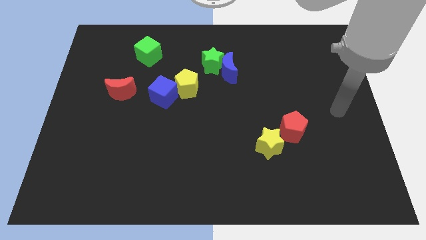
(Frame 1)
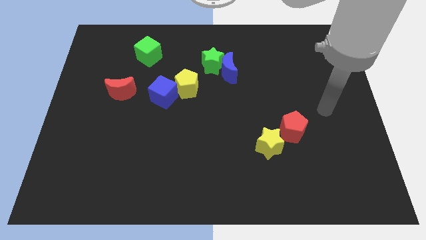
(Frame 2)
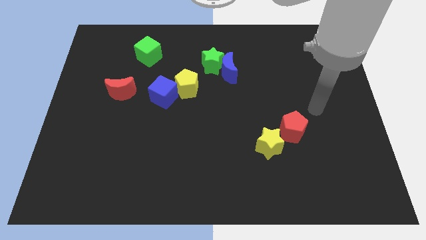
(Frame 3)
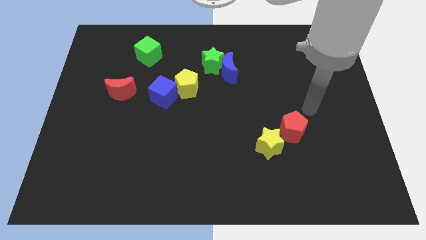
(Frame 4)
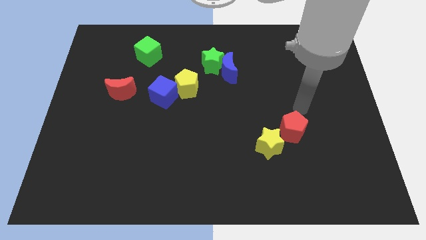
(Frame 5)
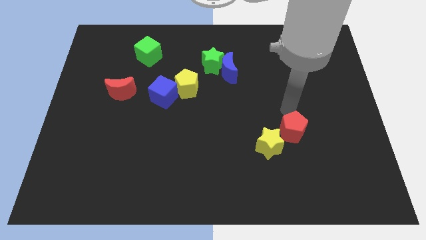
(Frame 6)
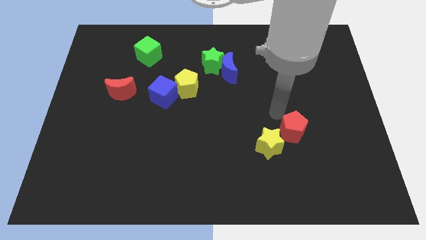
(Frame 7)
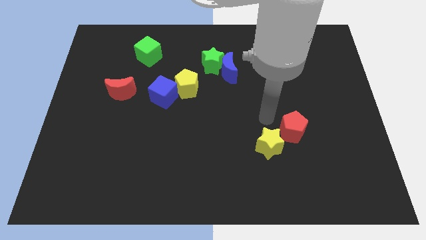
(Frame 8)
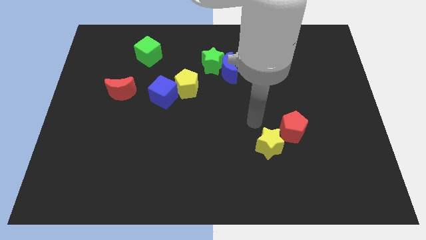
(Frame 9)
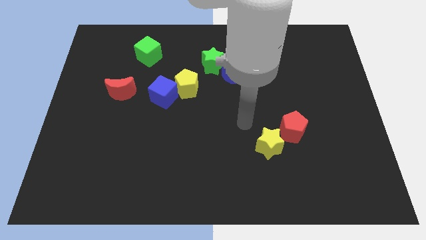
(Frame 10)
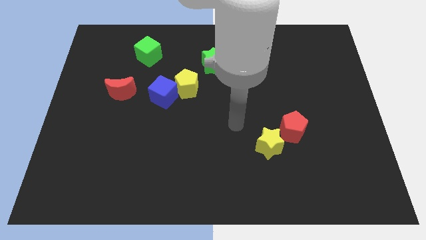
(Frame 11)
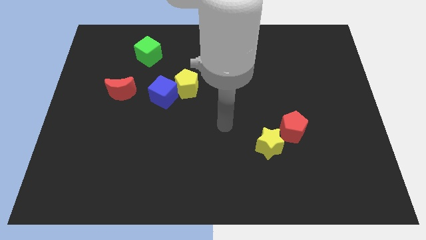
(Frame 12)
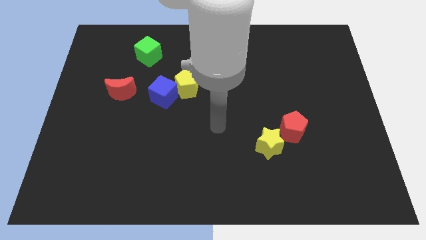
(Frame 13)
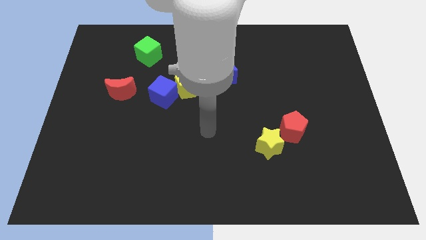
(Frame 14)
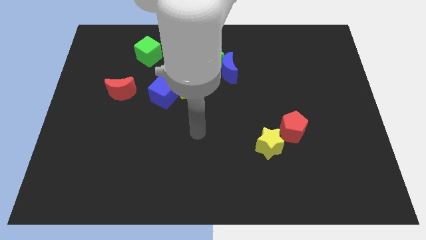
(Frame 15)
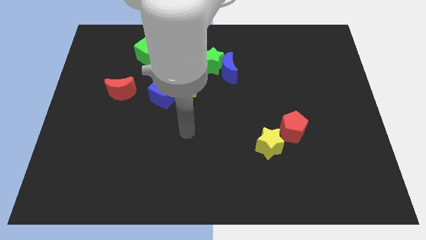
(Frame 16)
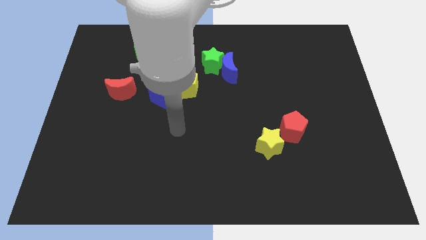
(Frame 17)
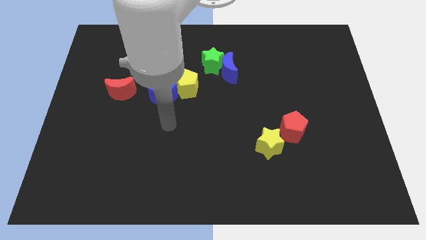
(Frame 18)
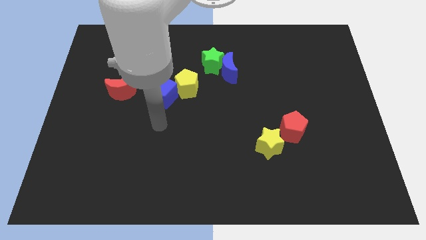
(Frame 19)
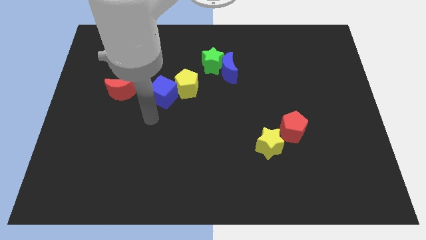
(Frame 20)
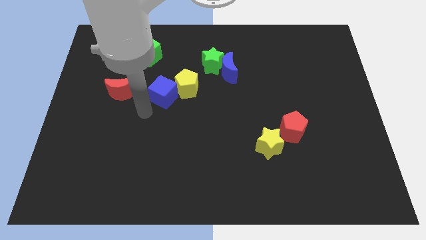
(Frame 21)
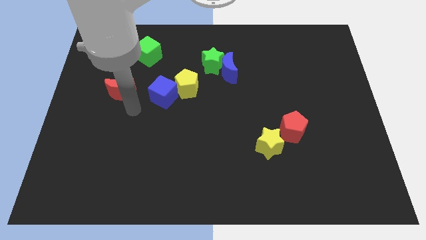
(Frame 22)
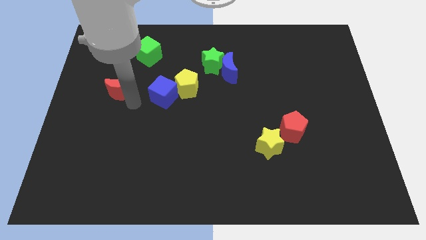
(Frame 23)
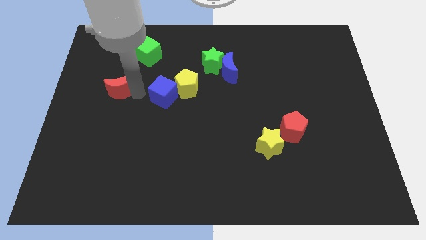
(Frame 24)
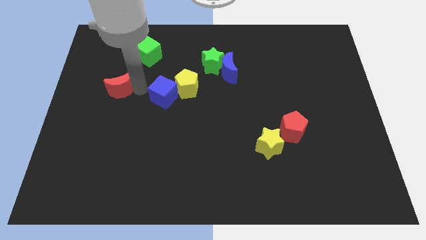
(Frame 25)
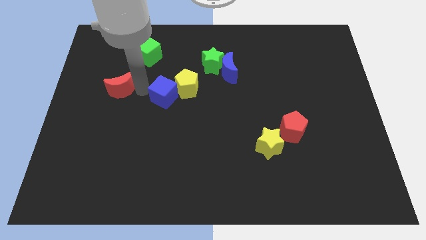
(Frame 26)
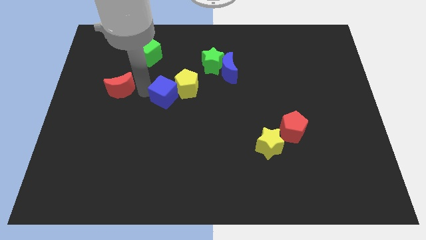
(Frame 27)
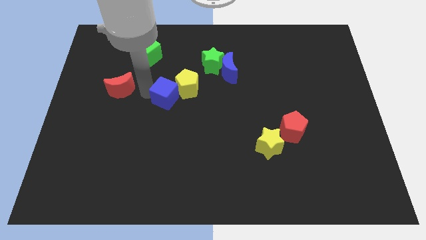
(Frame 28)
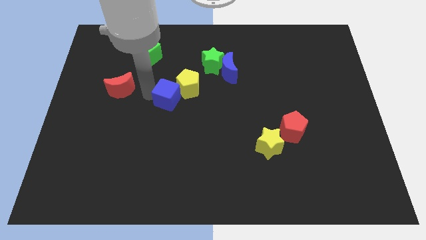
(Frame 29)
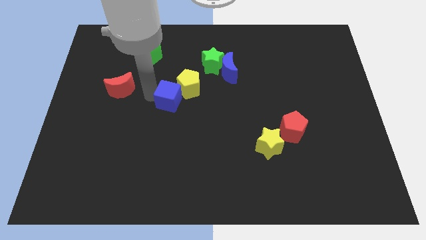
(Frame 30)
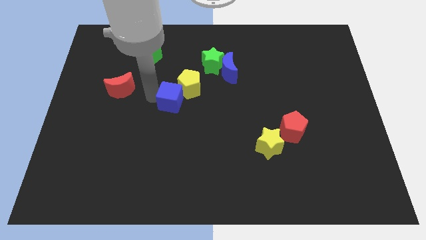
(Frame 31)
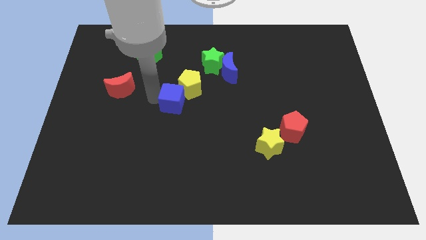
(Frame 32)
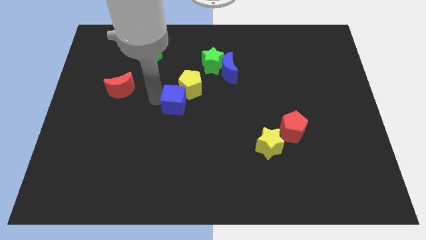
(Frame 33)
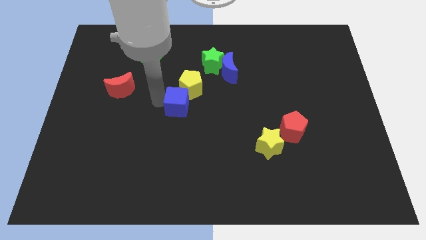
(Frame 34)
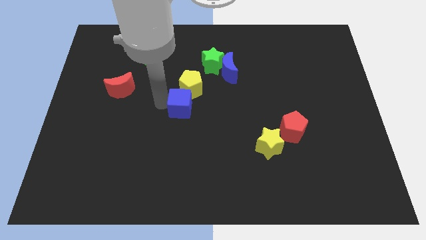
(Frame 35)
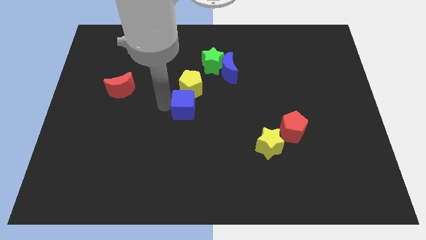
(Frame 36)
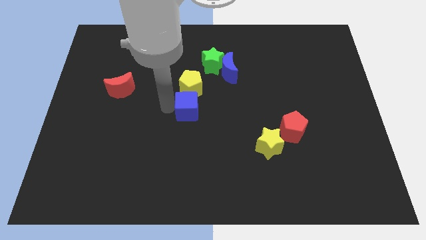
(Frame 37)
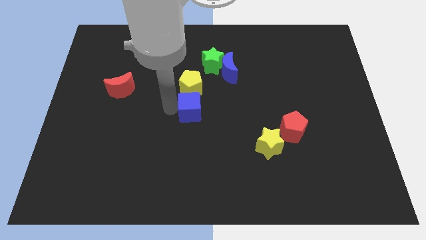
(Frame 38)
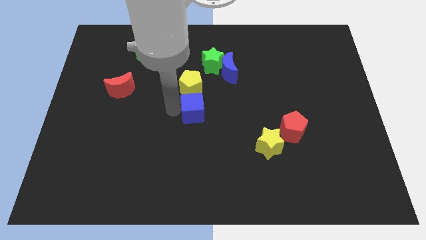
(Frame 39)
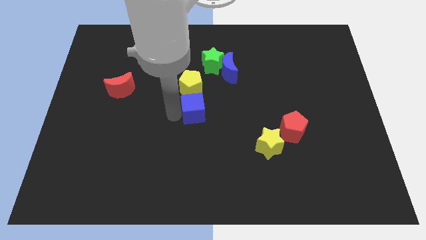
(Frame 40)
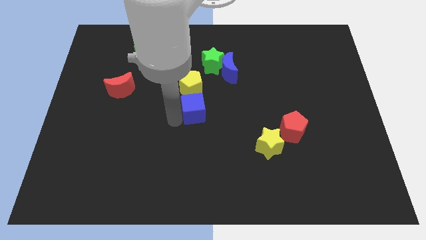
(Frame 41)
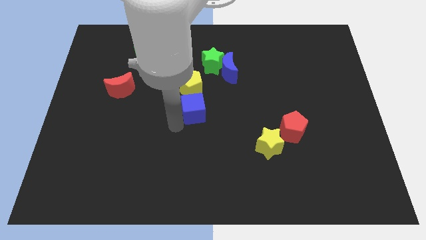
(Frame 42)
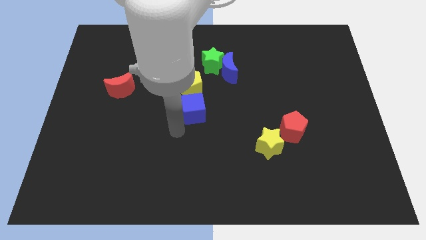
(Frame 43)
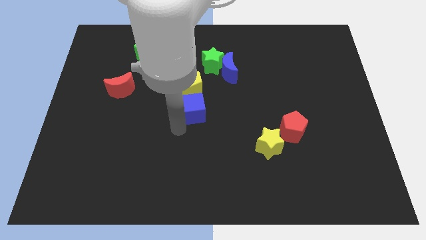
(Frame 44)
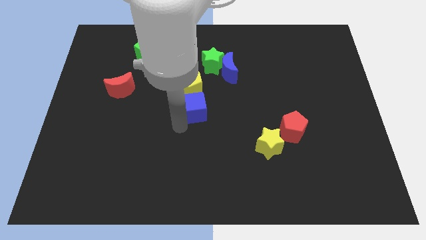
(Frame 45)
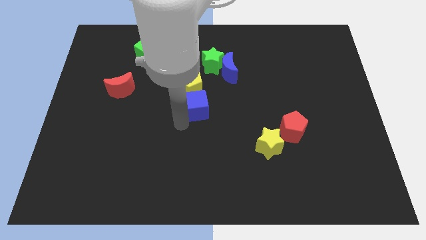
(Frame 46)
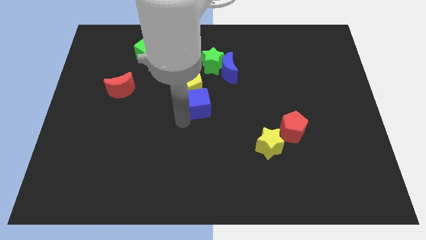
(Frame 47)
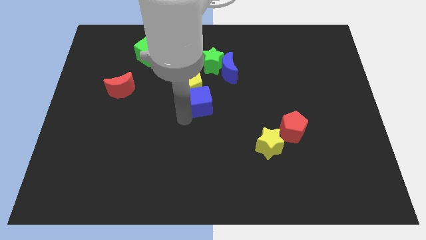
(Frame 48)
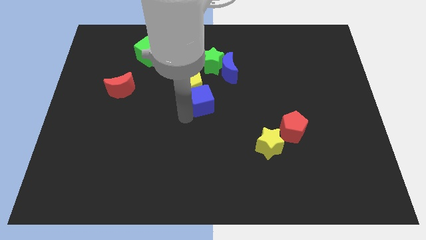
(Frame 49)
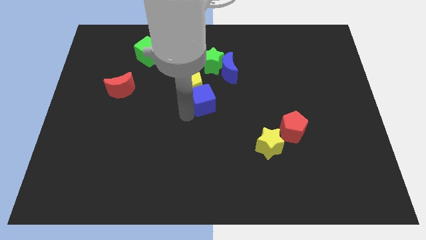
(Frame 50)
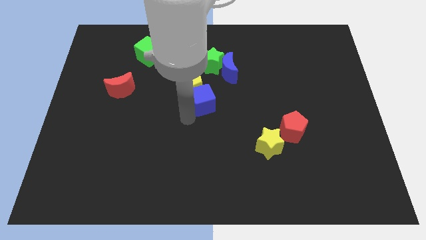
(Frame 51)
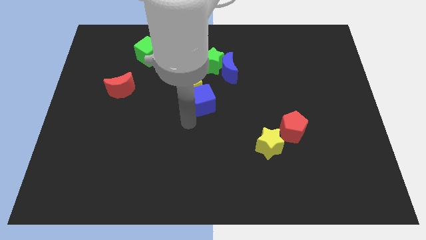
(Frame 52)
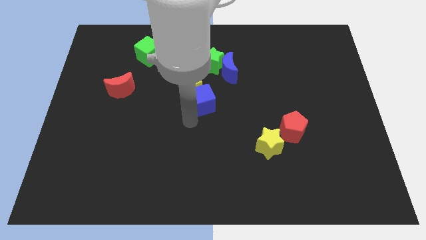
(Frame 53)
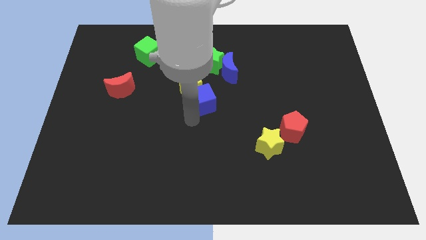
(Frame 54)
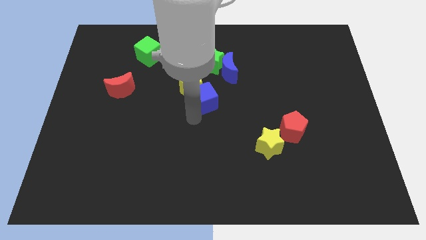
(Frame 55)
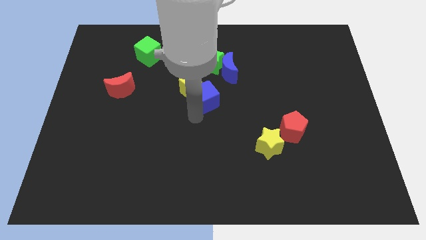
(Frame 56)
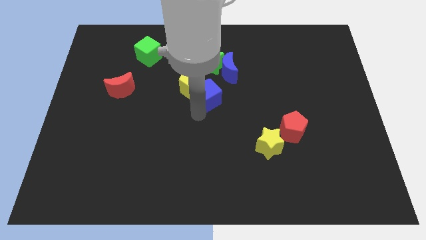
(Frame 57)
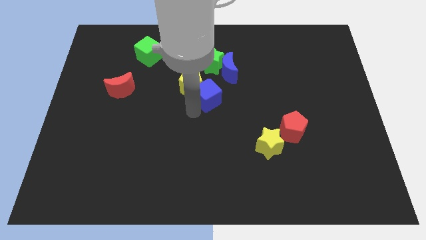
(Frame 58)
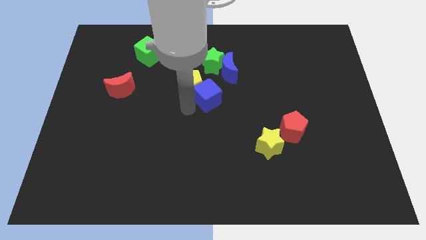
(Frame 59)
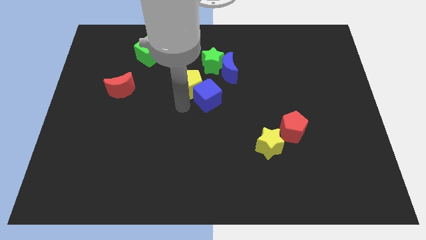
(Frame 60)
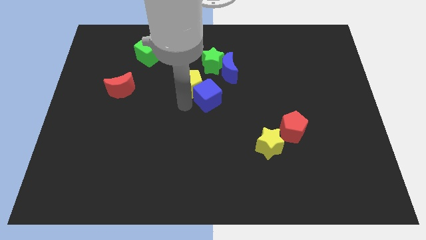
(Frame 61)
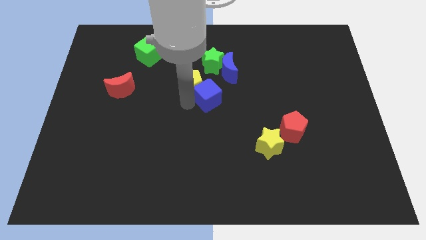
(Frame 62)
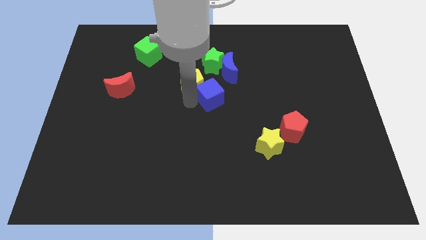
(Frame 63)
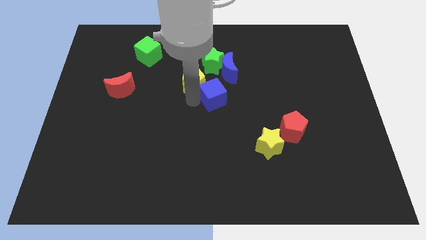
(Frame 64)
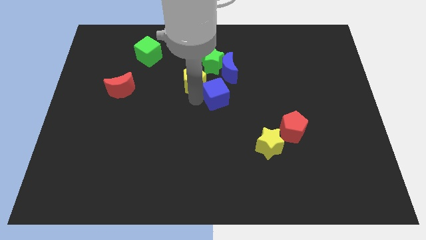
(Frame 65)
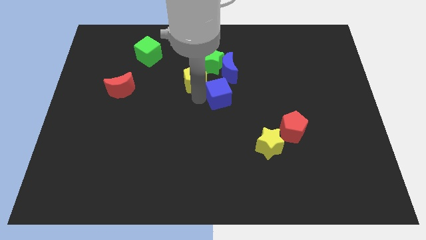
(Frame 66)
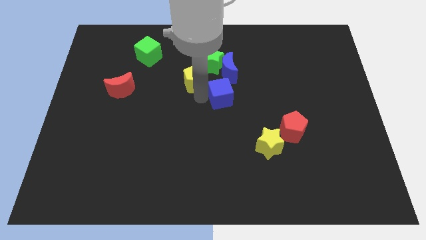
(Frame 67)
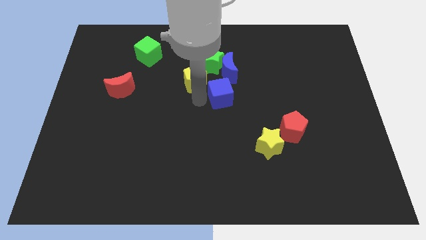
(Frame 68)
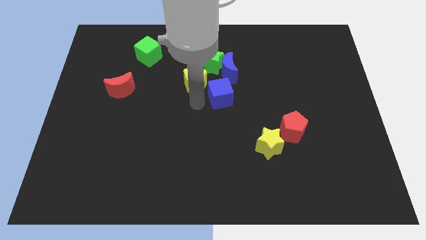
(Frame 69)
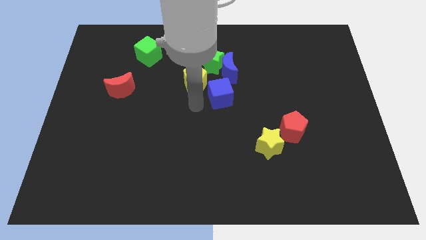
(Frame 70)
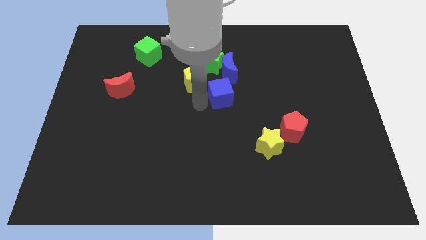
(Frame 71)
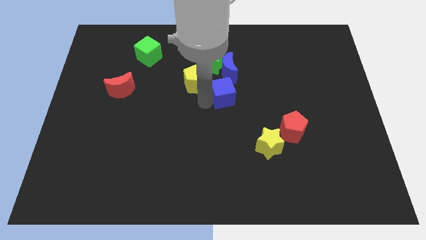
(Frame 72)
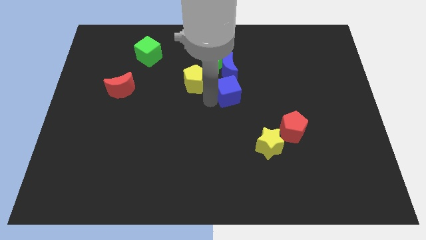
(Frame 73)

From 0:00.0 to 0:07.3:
slide the blue cube to the bottom right of the green star

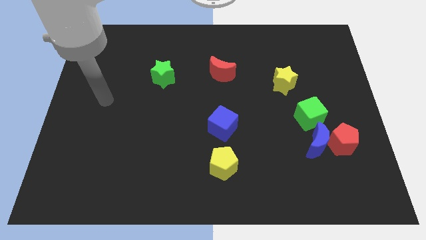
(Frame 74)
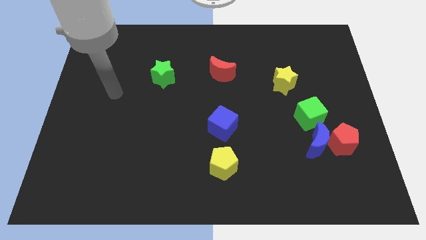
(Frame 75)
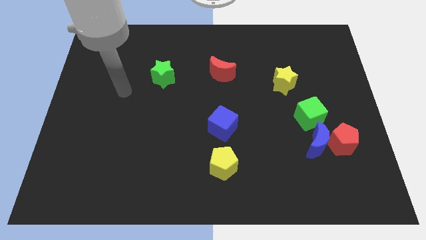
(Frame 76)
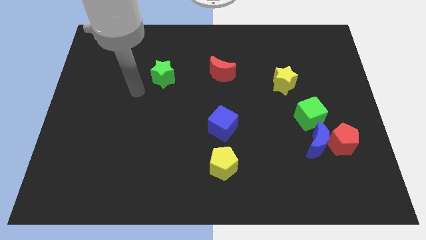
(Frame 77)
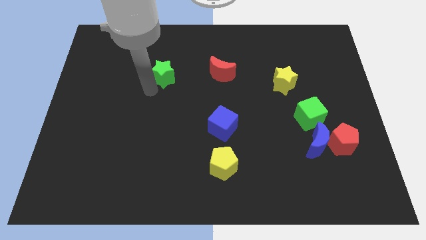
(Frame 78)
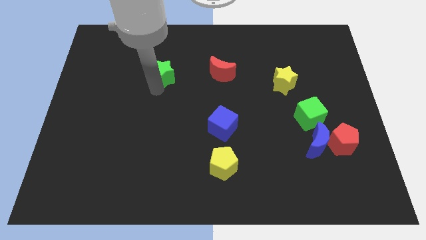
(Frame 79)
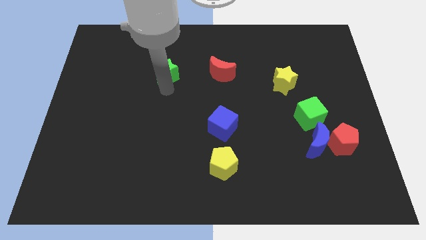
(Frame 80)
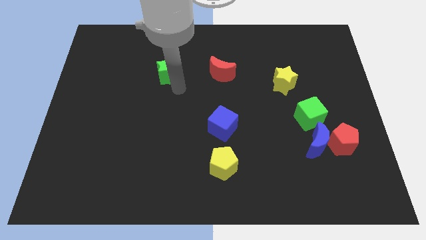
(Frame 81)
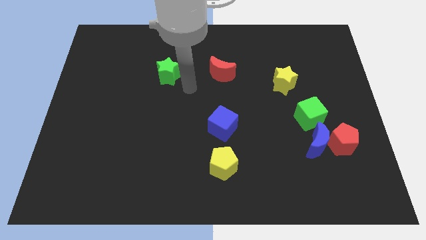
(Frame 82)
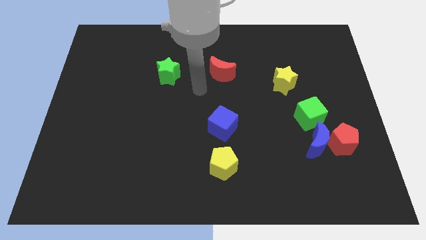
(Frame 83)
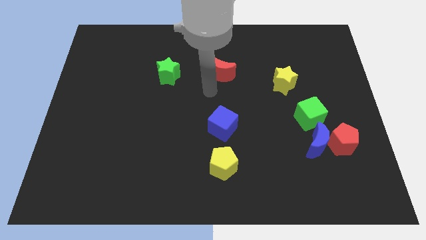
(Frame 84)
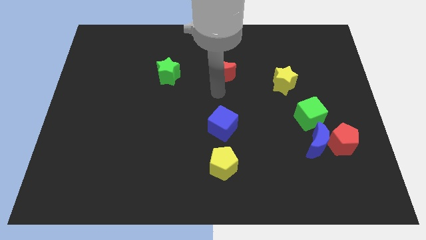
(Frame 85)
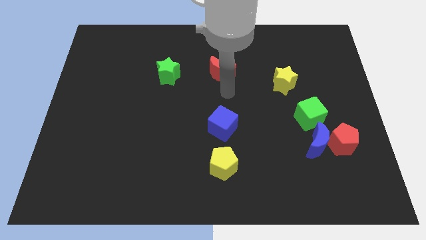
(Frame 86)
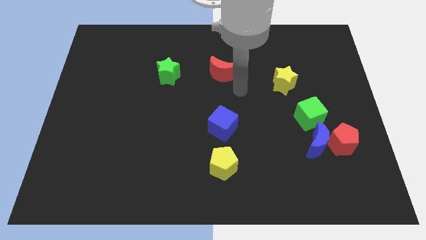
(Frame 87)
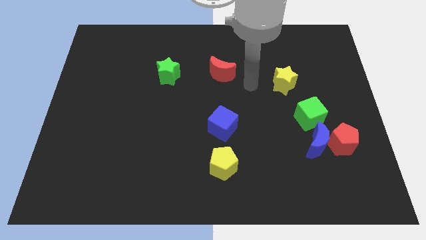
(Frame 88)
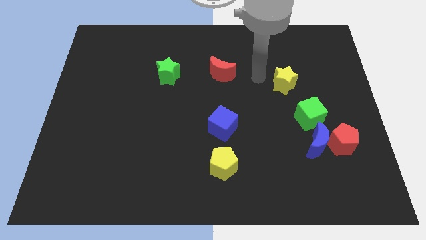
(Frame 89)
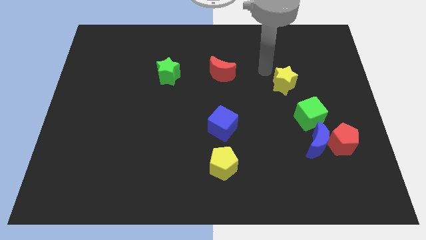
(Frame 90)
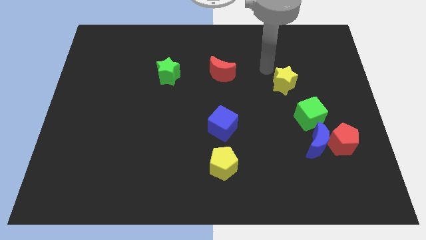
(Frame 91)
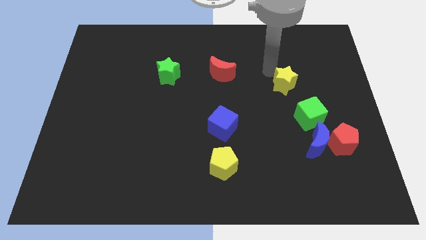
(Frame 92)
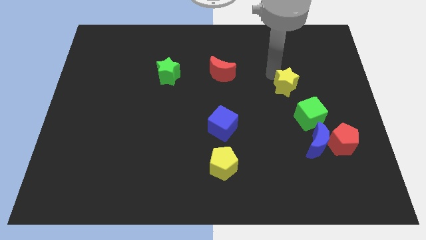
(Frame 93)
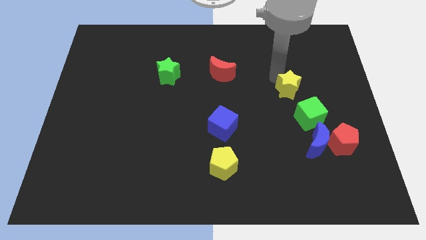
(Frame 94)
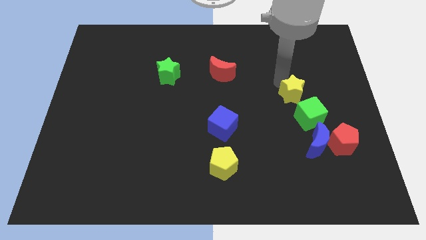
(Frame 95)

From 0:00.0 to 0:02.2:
push the yellow star above the blue moon
